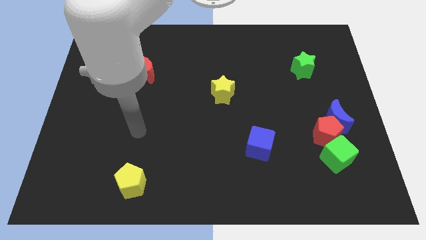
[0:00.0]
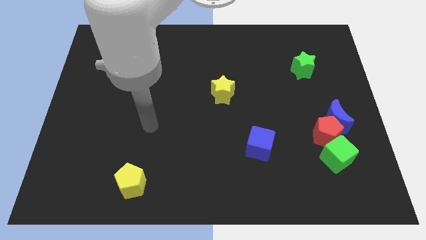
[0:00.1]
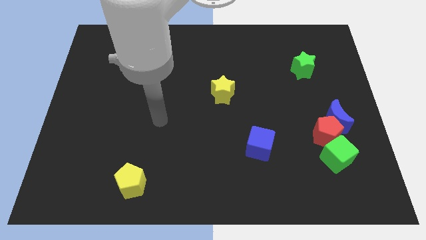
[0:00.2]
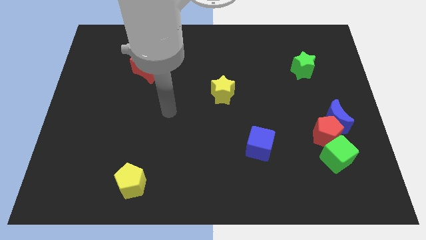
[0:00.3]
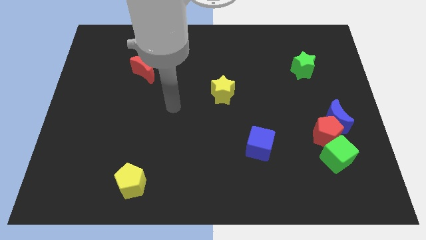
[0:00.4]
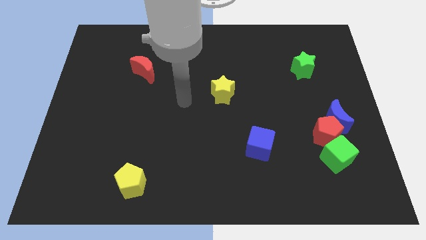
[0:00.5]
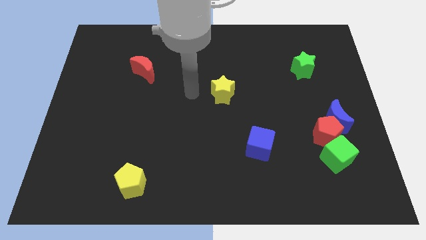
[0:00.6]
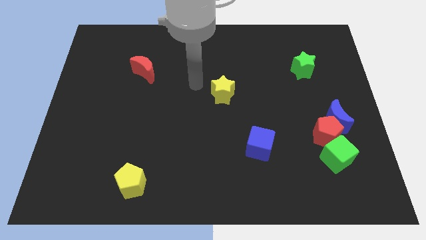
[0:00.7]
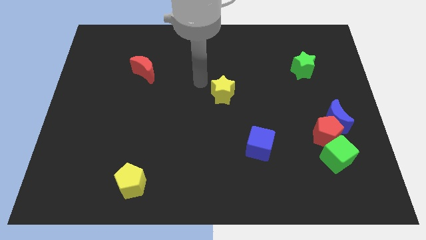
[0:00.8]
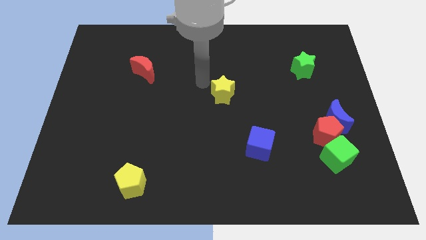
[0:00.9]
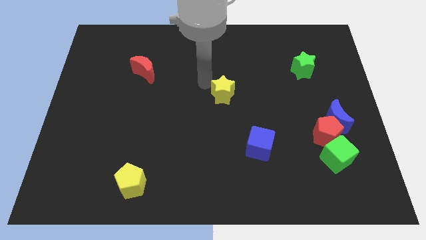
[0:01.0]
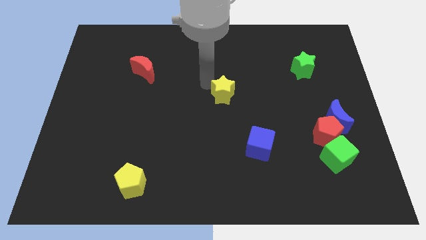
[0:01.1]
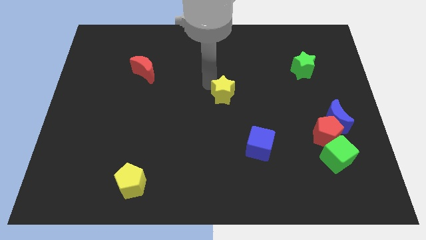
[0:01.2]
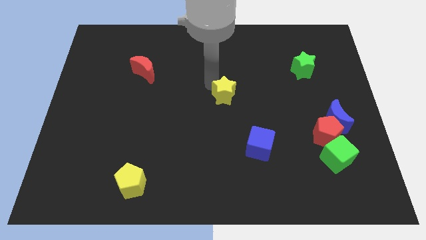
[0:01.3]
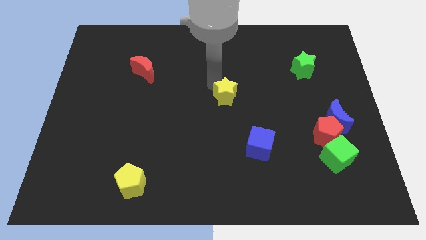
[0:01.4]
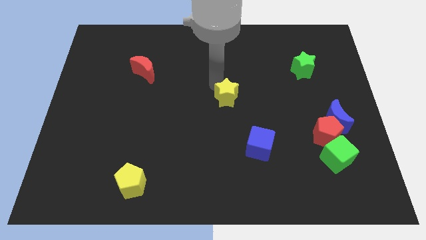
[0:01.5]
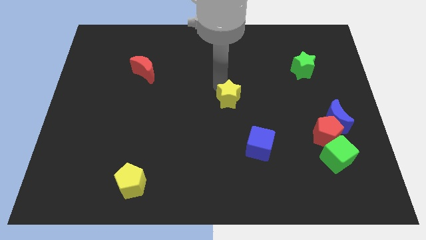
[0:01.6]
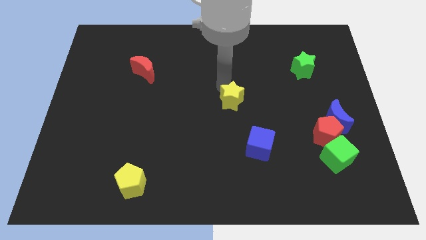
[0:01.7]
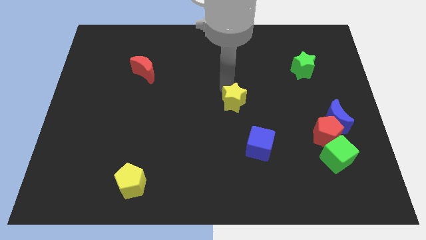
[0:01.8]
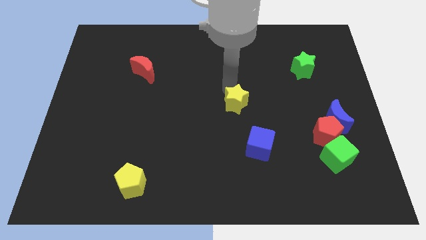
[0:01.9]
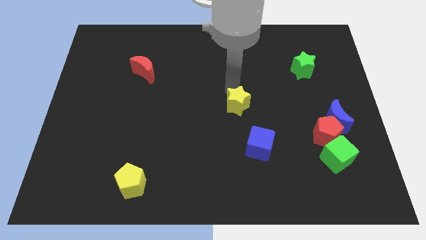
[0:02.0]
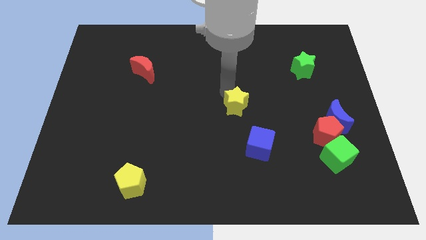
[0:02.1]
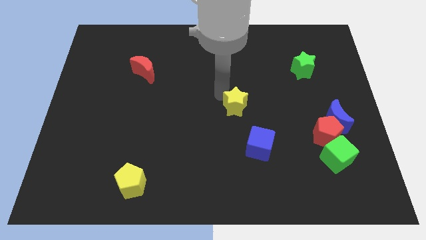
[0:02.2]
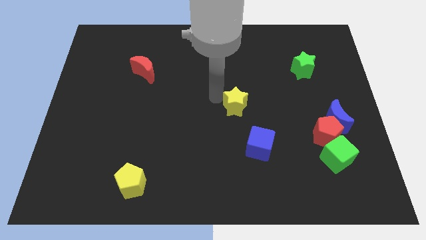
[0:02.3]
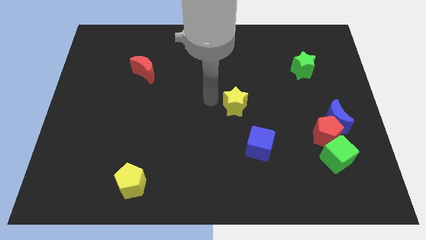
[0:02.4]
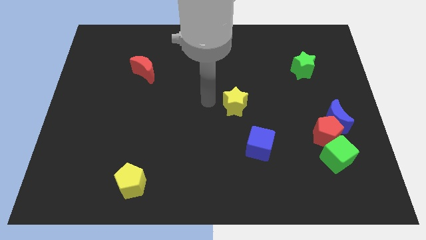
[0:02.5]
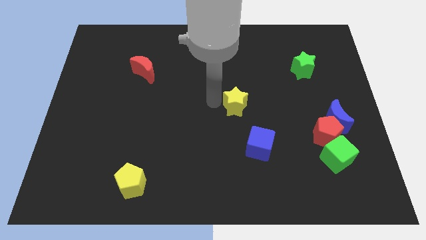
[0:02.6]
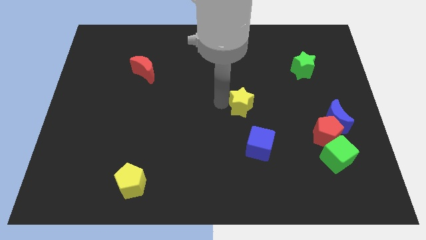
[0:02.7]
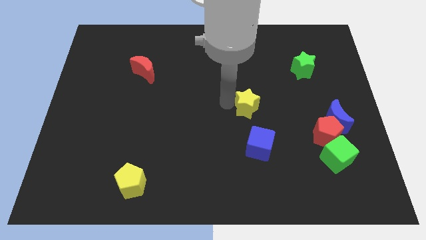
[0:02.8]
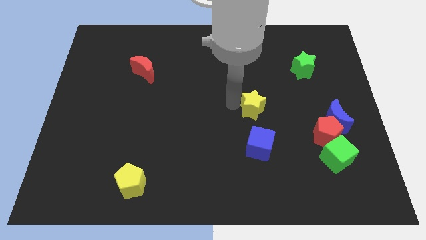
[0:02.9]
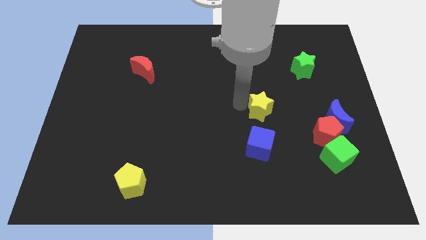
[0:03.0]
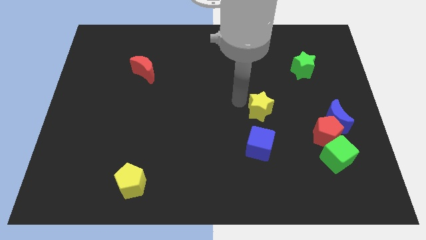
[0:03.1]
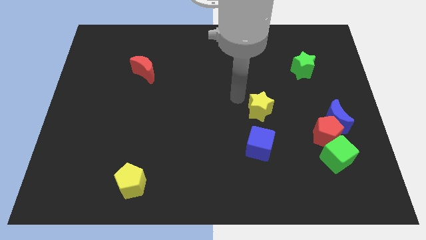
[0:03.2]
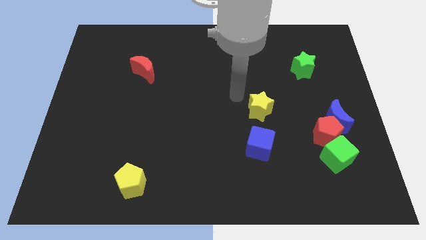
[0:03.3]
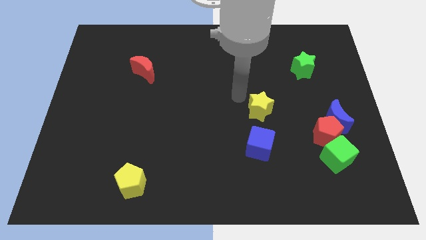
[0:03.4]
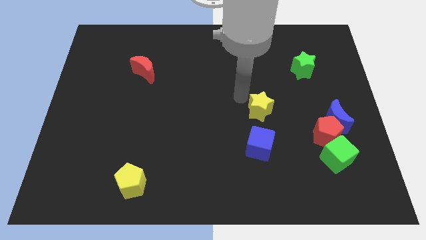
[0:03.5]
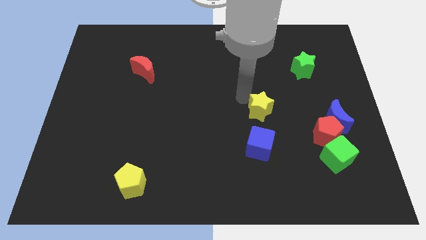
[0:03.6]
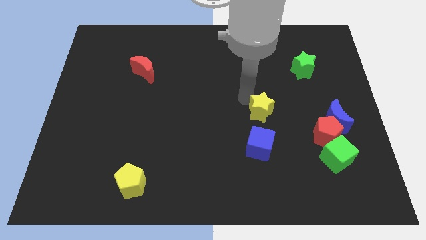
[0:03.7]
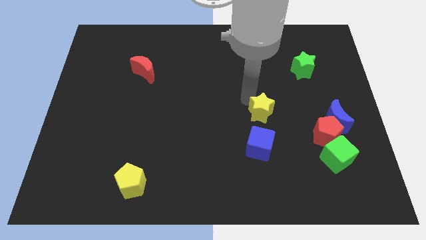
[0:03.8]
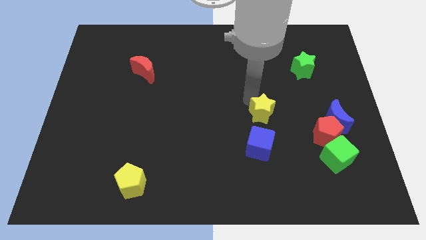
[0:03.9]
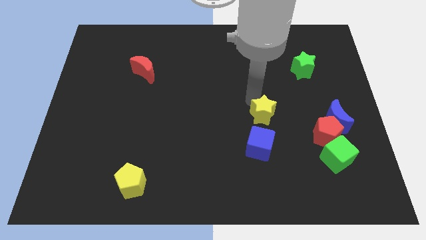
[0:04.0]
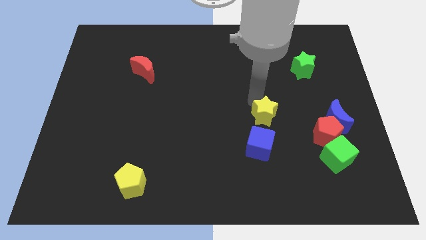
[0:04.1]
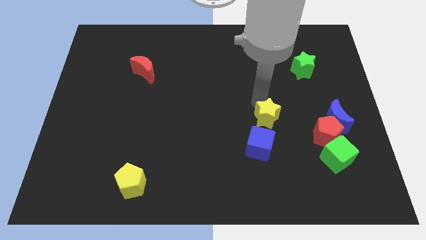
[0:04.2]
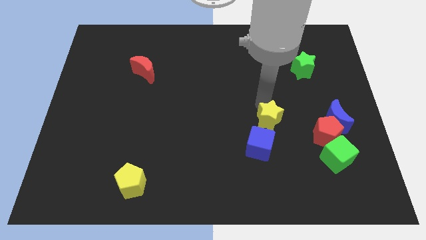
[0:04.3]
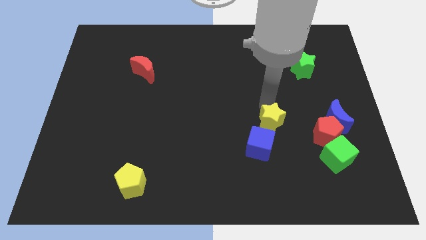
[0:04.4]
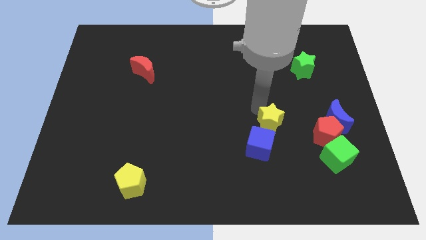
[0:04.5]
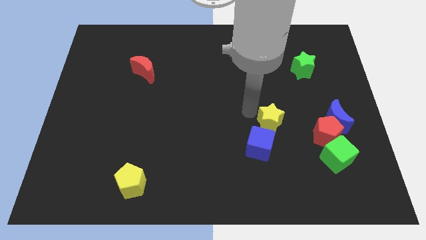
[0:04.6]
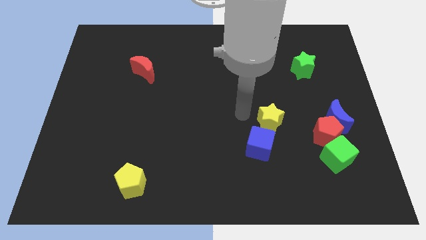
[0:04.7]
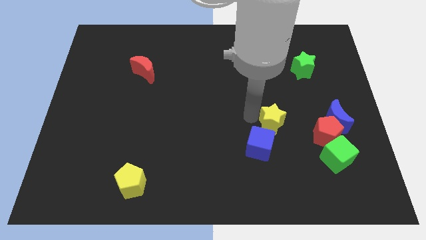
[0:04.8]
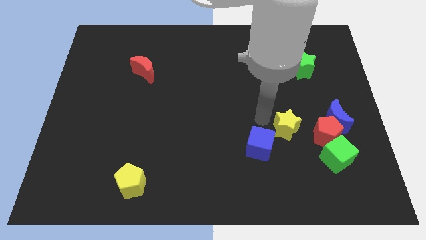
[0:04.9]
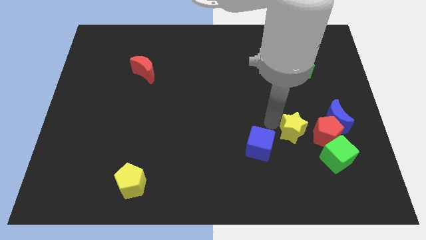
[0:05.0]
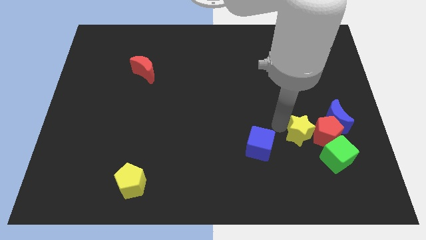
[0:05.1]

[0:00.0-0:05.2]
push the yellow star close to the red pentagon

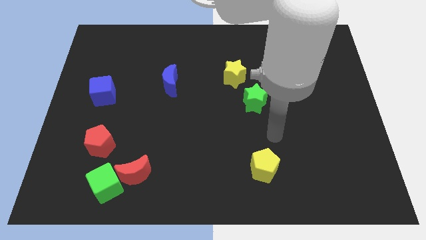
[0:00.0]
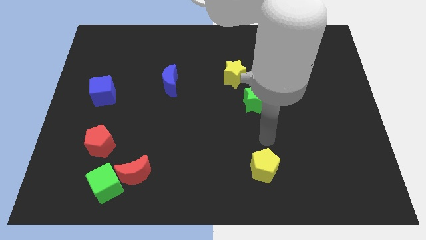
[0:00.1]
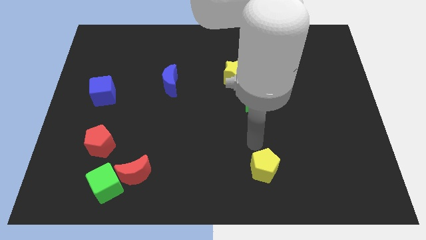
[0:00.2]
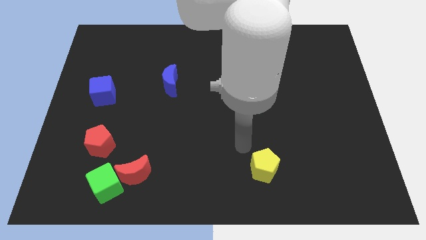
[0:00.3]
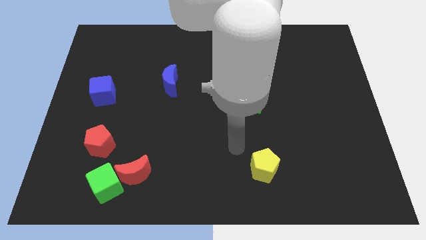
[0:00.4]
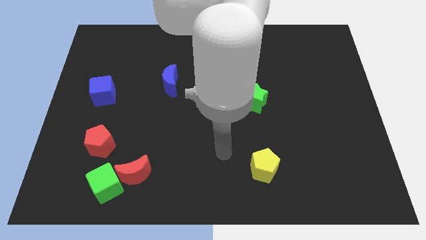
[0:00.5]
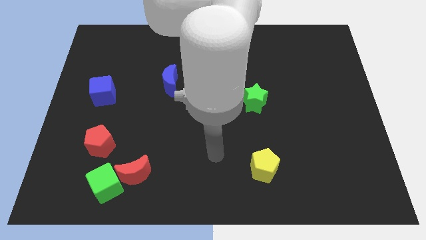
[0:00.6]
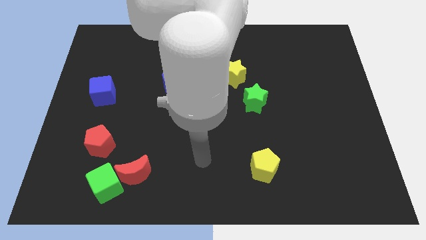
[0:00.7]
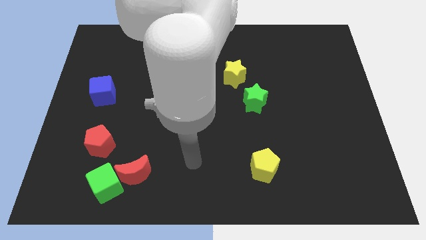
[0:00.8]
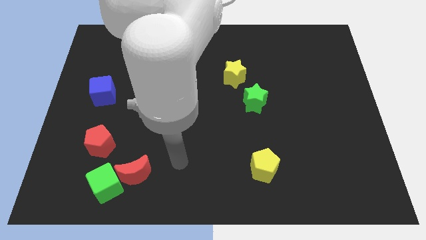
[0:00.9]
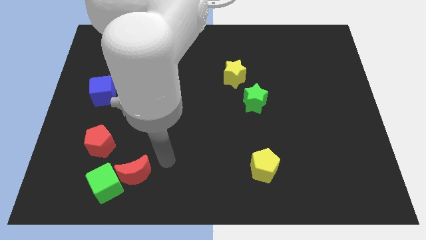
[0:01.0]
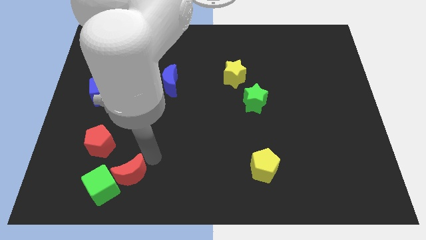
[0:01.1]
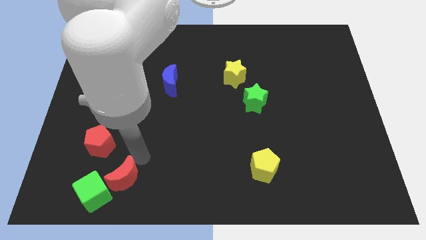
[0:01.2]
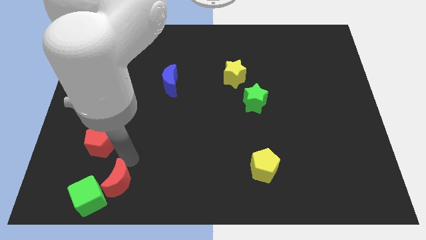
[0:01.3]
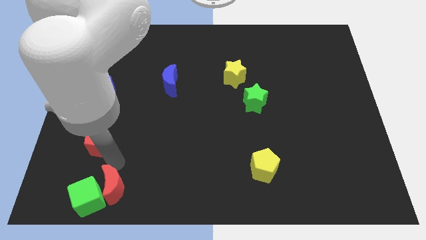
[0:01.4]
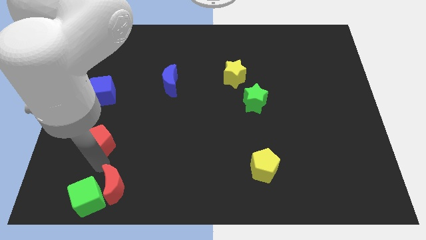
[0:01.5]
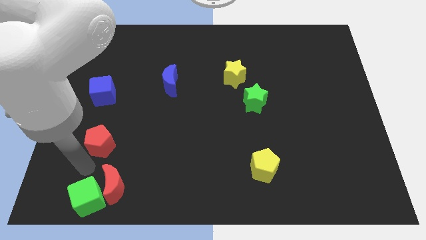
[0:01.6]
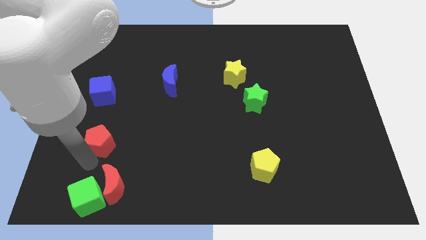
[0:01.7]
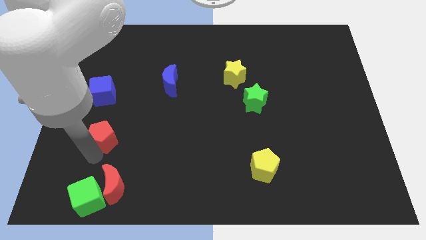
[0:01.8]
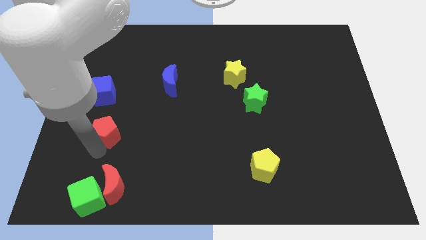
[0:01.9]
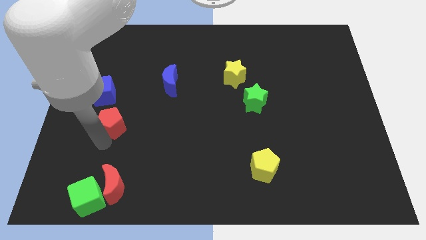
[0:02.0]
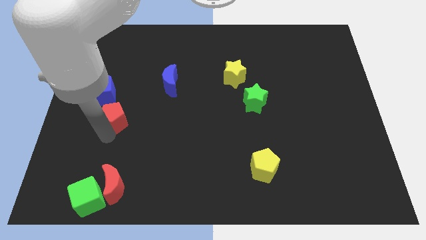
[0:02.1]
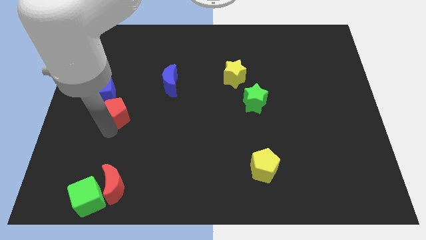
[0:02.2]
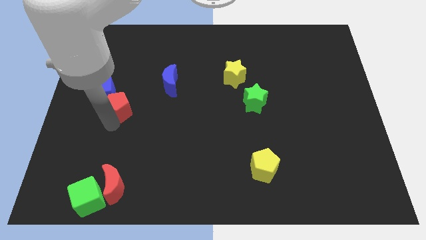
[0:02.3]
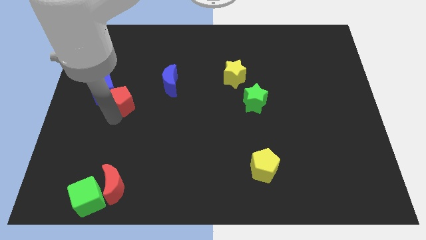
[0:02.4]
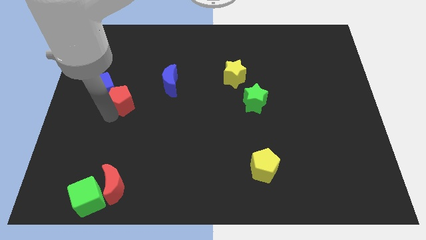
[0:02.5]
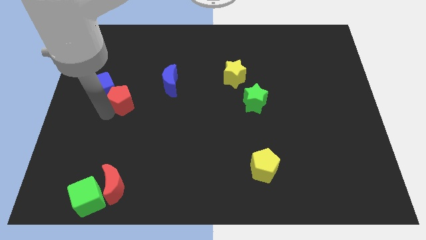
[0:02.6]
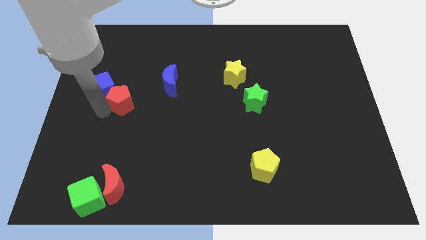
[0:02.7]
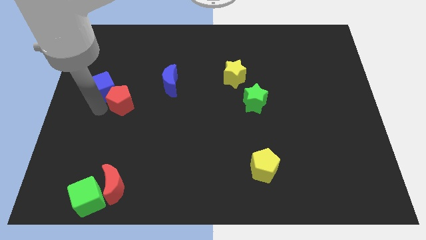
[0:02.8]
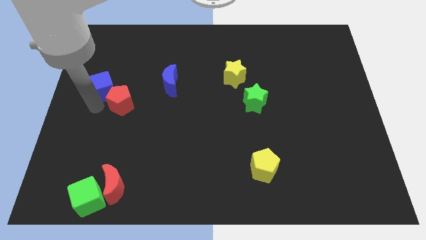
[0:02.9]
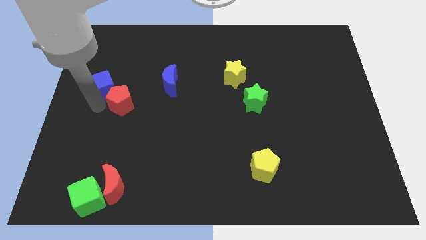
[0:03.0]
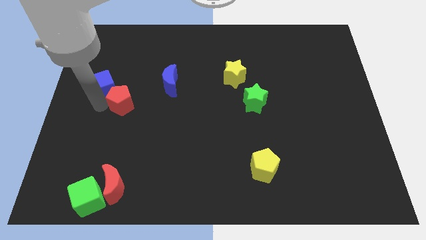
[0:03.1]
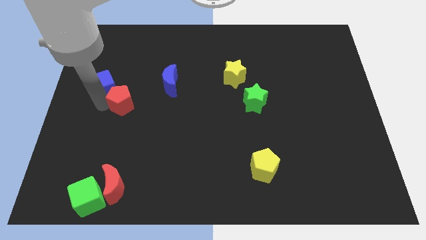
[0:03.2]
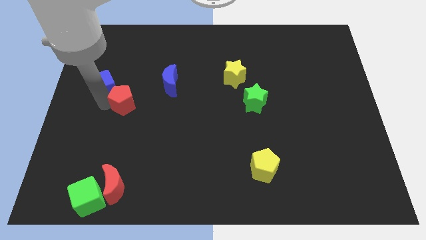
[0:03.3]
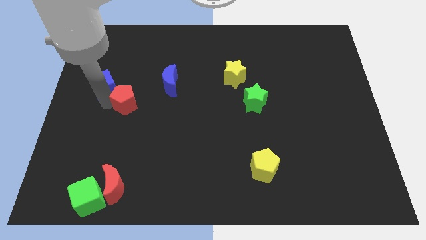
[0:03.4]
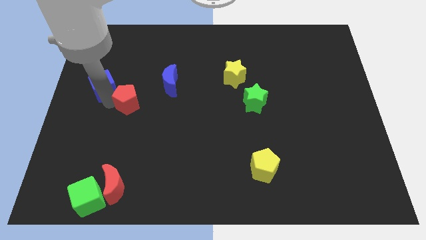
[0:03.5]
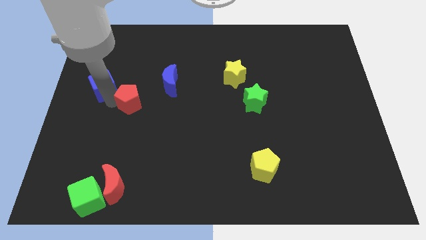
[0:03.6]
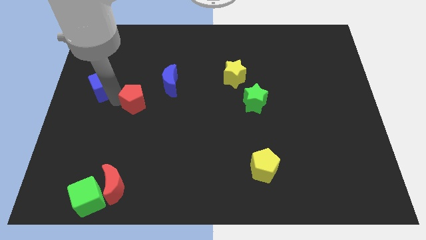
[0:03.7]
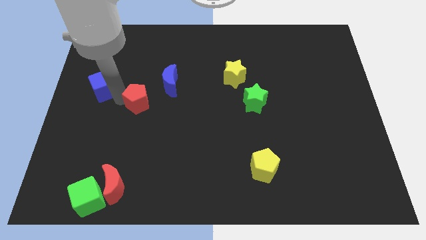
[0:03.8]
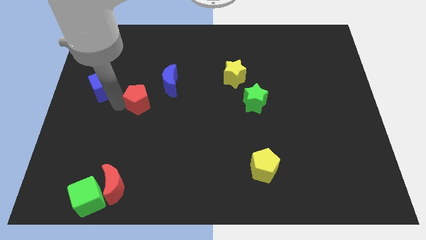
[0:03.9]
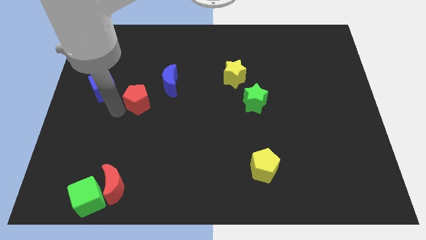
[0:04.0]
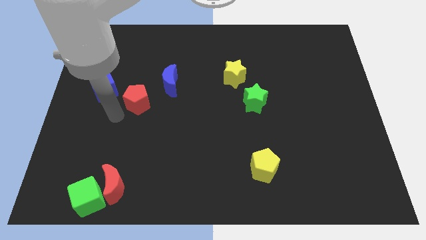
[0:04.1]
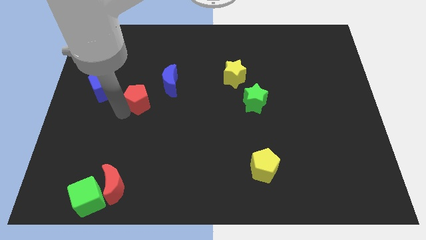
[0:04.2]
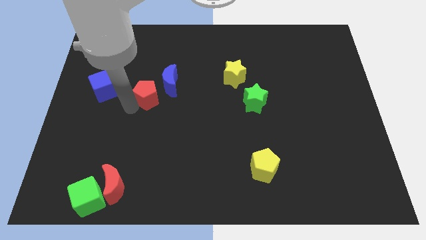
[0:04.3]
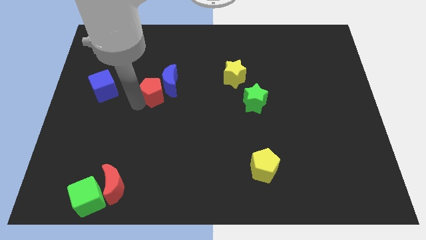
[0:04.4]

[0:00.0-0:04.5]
put the red pentagon to the blue moon
